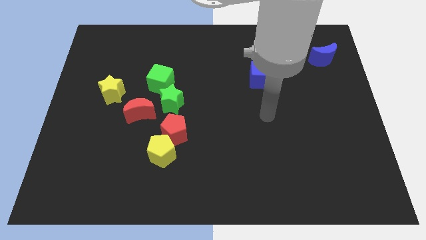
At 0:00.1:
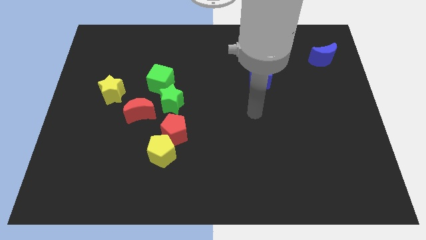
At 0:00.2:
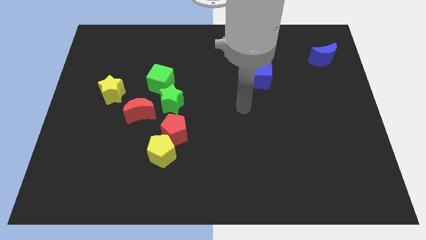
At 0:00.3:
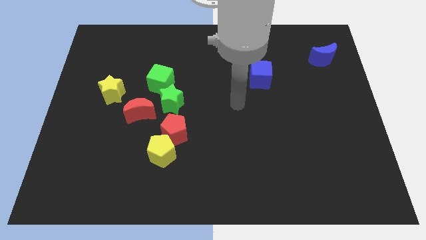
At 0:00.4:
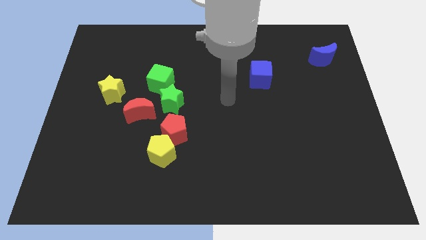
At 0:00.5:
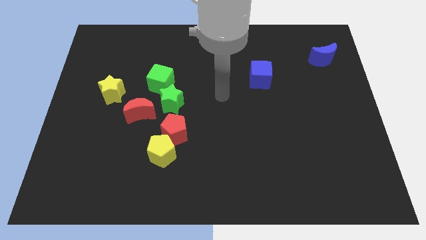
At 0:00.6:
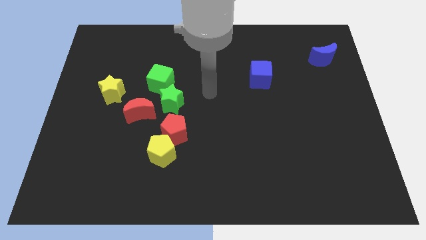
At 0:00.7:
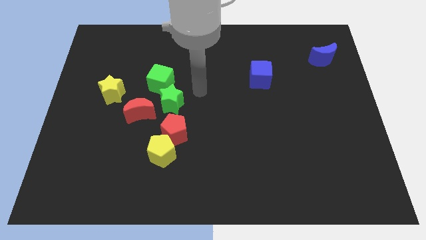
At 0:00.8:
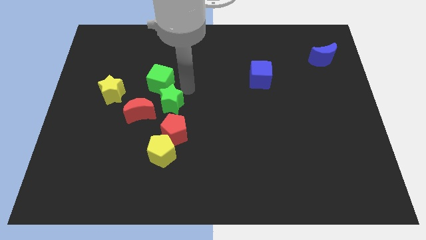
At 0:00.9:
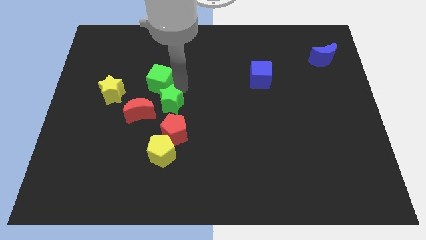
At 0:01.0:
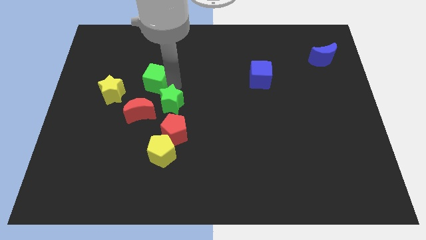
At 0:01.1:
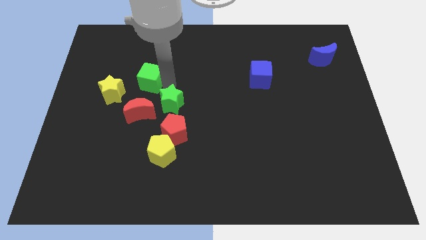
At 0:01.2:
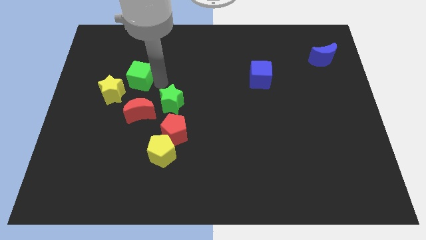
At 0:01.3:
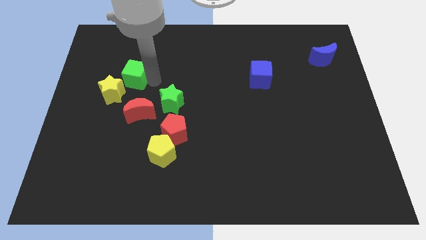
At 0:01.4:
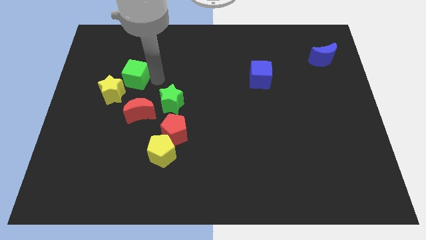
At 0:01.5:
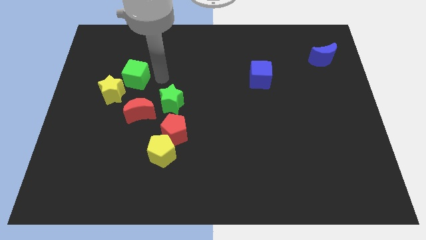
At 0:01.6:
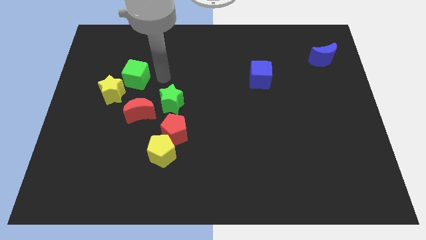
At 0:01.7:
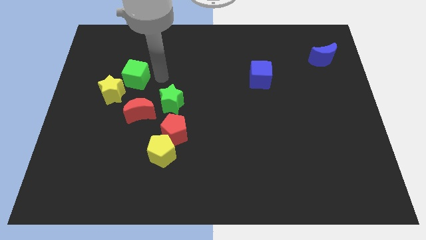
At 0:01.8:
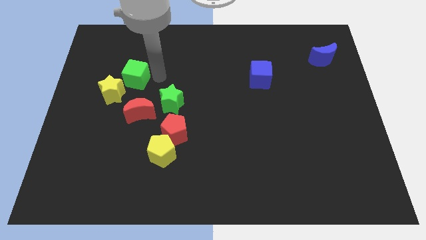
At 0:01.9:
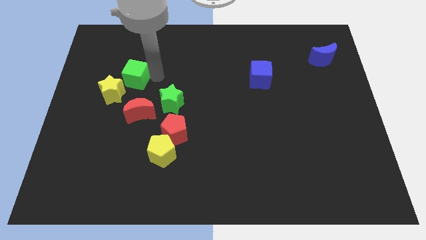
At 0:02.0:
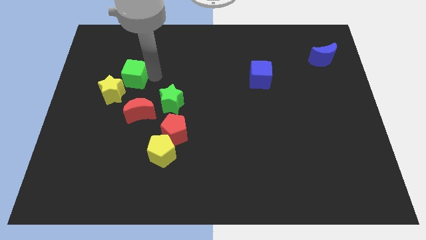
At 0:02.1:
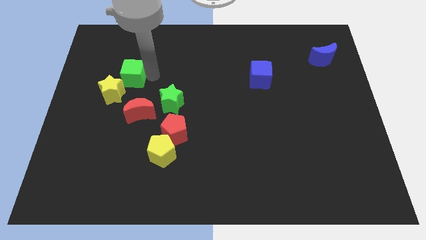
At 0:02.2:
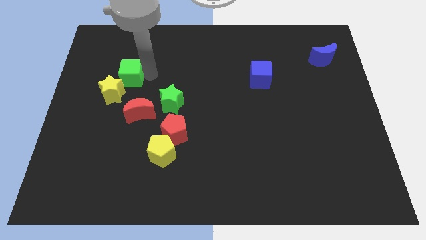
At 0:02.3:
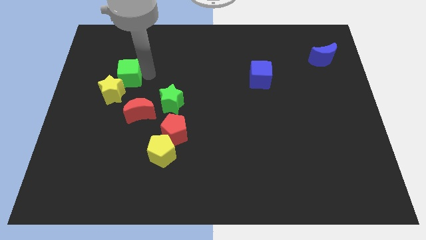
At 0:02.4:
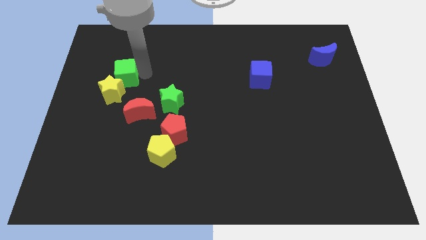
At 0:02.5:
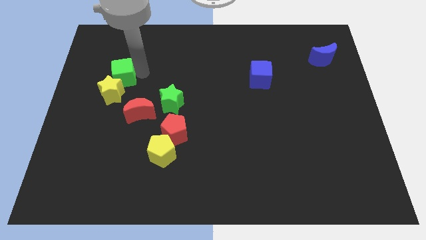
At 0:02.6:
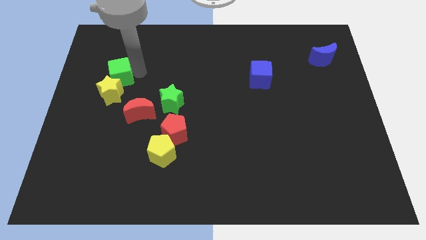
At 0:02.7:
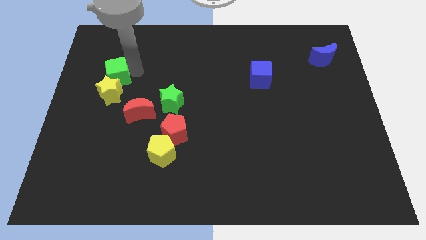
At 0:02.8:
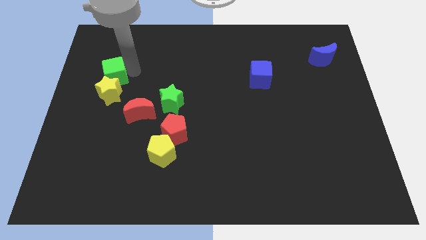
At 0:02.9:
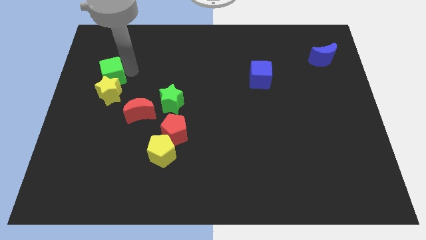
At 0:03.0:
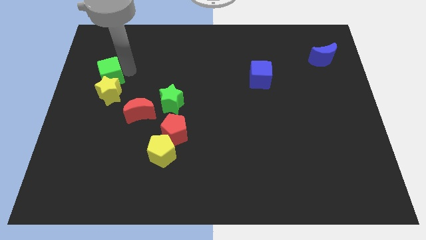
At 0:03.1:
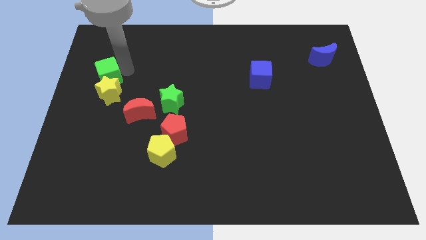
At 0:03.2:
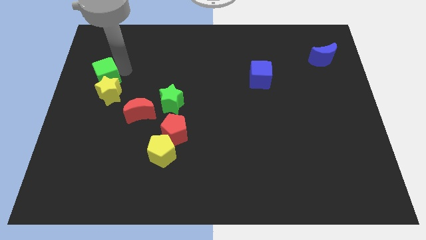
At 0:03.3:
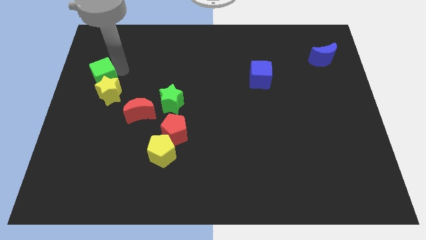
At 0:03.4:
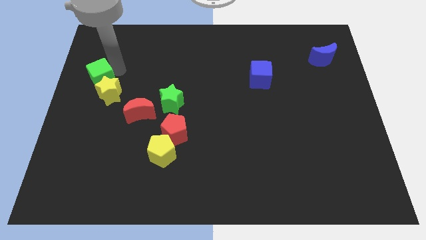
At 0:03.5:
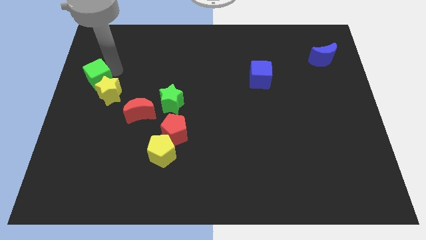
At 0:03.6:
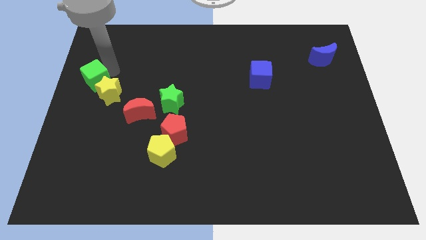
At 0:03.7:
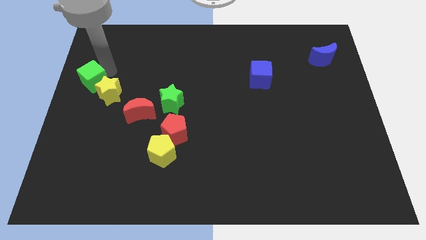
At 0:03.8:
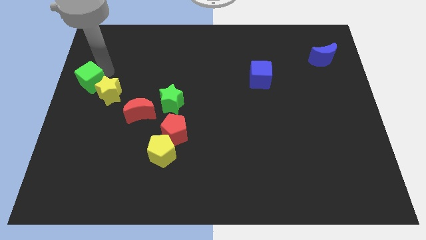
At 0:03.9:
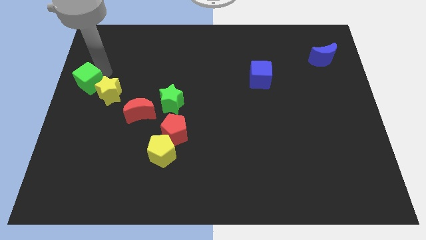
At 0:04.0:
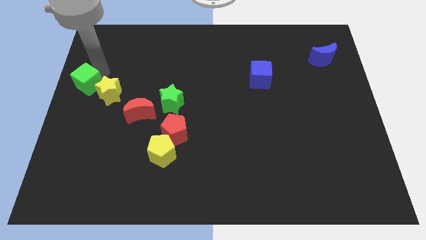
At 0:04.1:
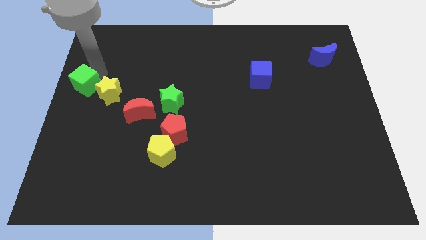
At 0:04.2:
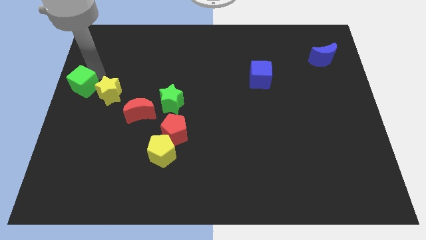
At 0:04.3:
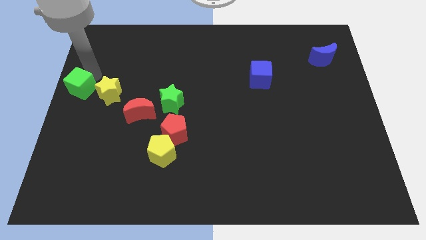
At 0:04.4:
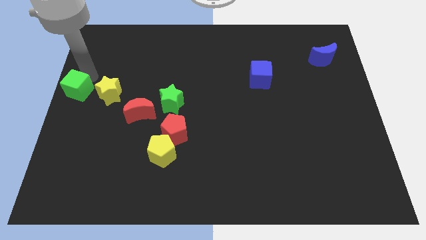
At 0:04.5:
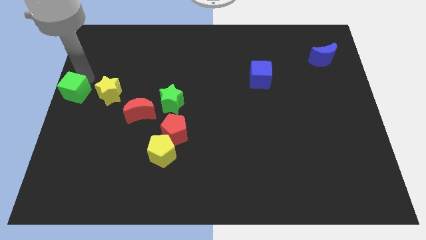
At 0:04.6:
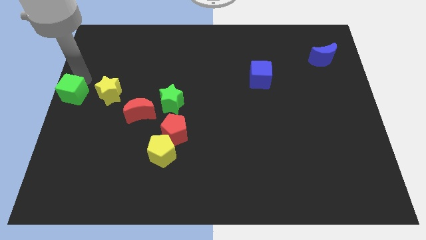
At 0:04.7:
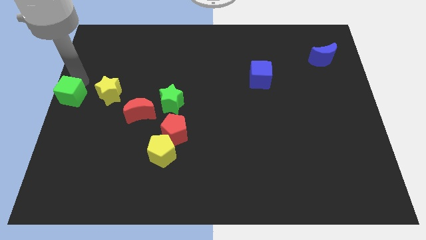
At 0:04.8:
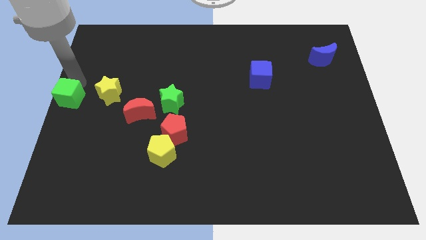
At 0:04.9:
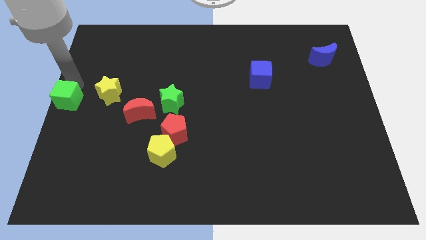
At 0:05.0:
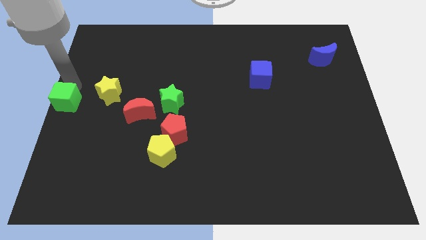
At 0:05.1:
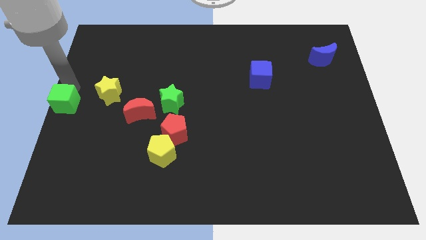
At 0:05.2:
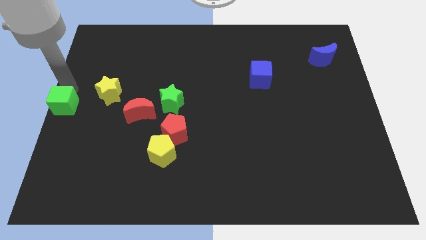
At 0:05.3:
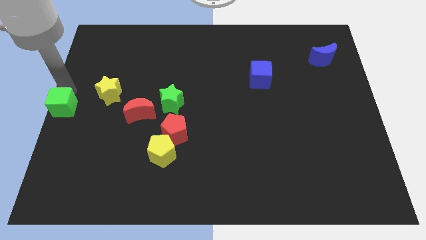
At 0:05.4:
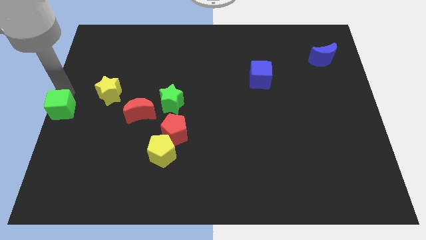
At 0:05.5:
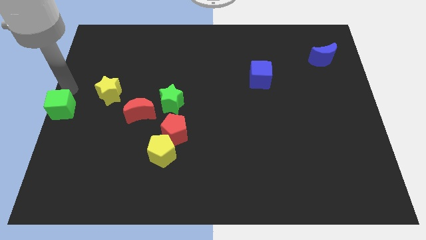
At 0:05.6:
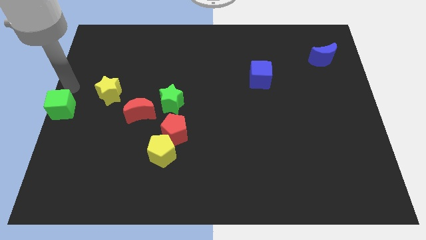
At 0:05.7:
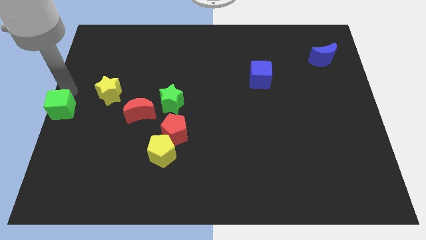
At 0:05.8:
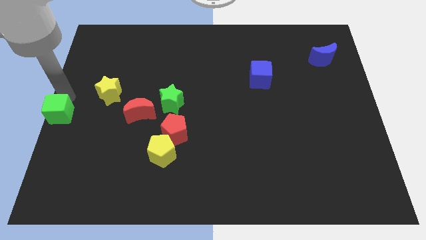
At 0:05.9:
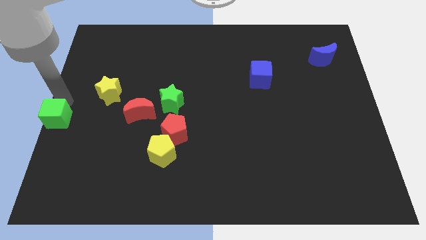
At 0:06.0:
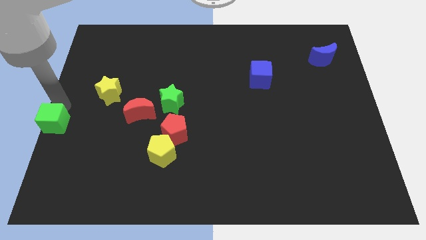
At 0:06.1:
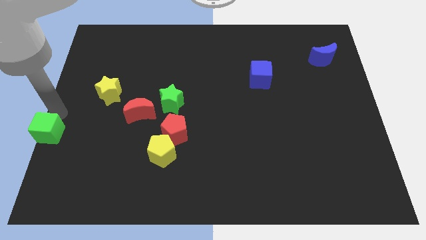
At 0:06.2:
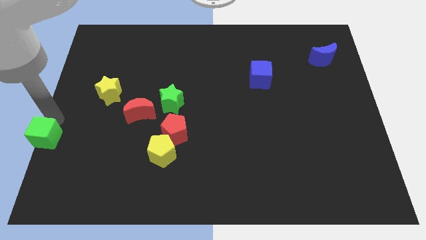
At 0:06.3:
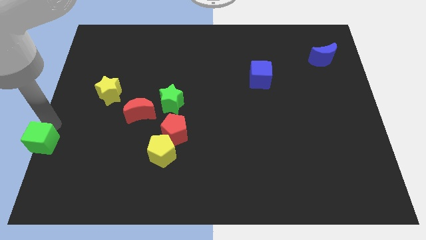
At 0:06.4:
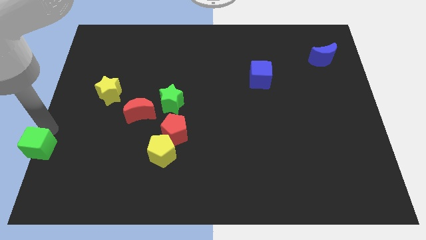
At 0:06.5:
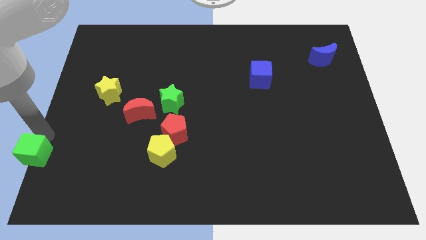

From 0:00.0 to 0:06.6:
push the green cube to the lower left corner
